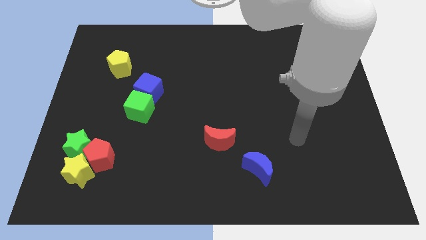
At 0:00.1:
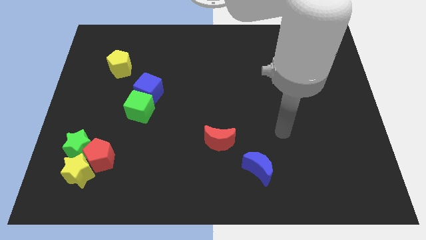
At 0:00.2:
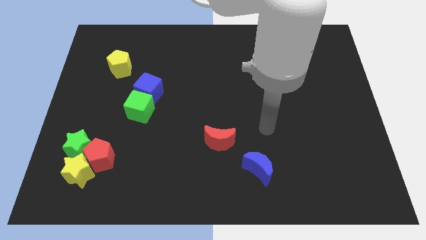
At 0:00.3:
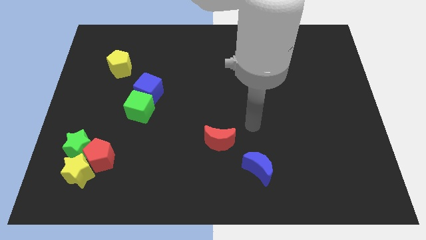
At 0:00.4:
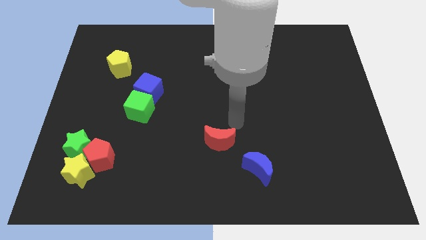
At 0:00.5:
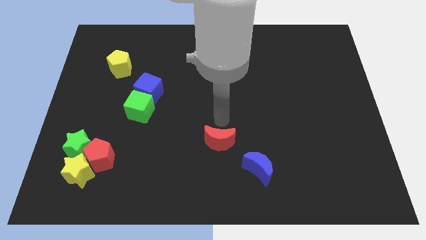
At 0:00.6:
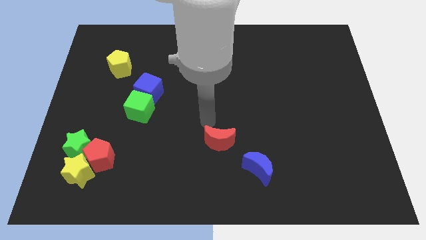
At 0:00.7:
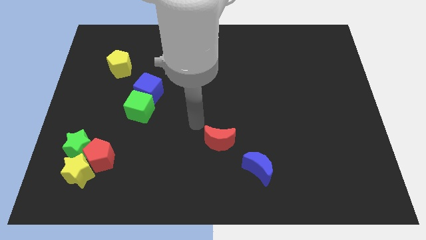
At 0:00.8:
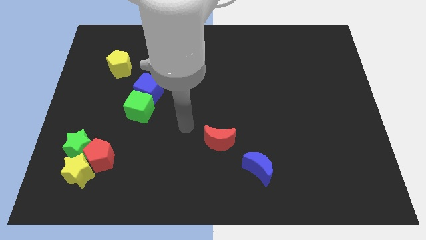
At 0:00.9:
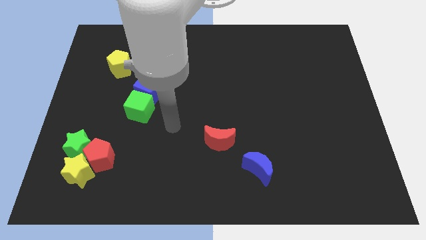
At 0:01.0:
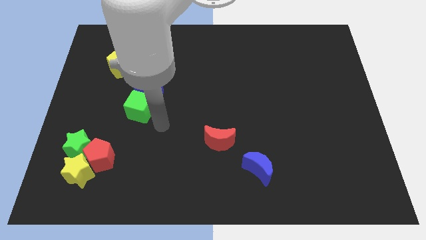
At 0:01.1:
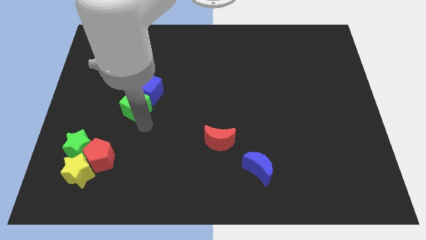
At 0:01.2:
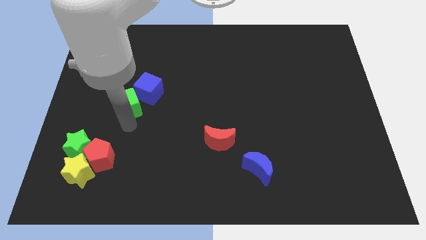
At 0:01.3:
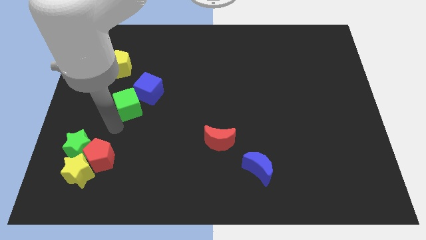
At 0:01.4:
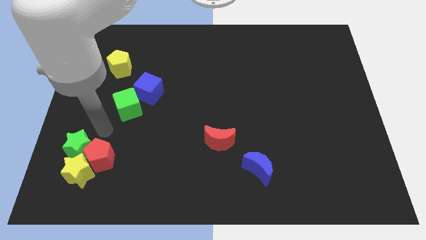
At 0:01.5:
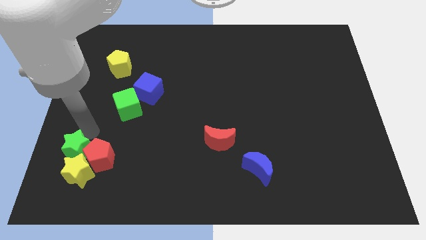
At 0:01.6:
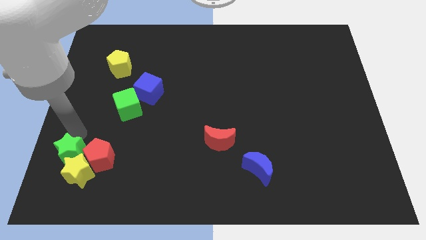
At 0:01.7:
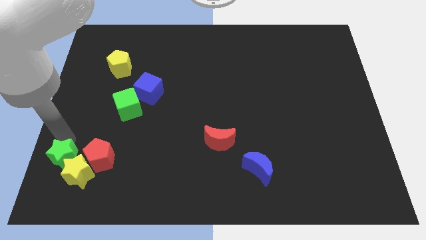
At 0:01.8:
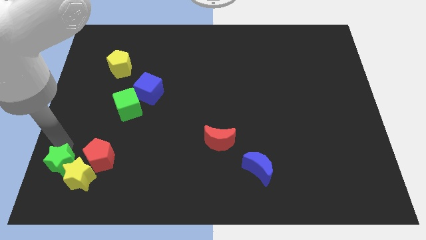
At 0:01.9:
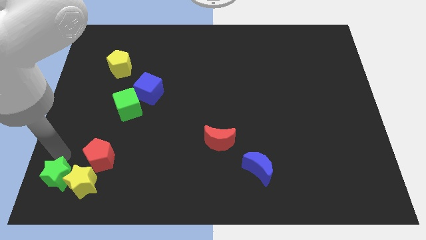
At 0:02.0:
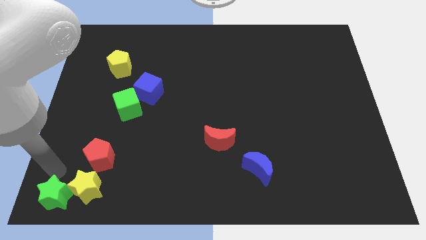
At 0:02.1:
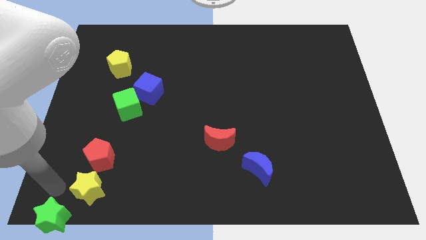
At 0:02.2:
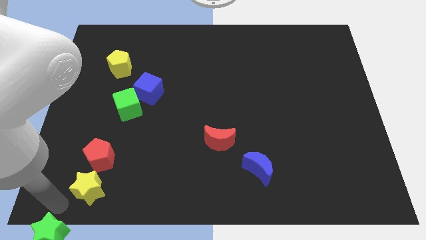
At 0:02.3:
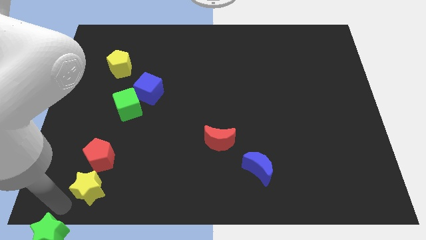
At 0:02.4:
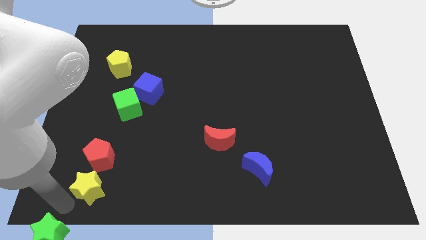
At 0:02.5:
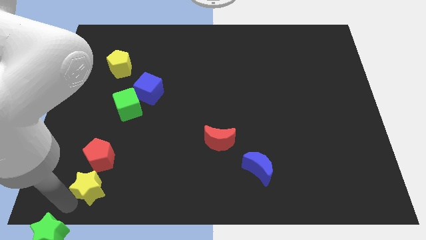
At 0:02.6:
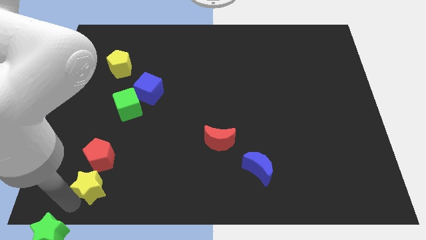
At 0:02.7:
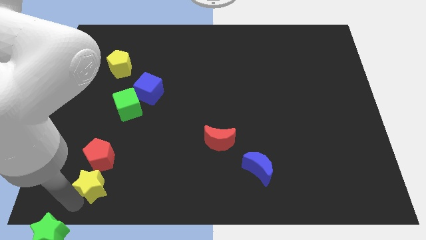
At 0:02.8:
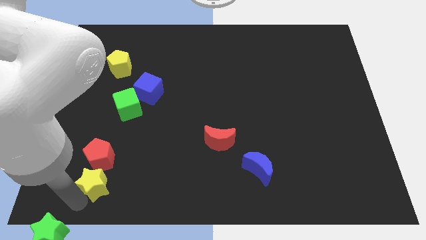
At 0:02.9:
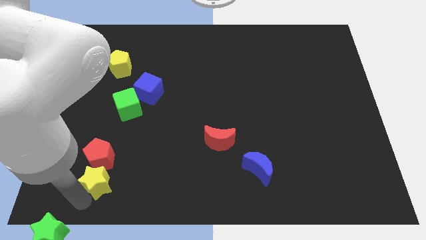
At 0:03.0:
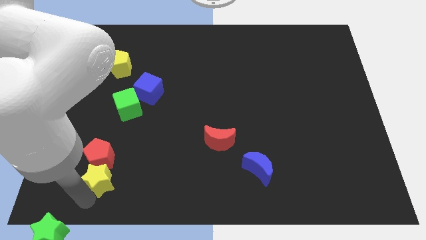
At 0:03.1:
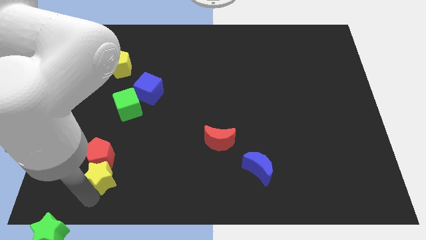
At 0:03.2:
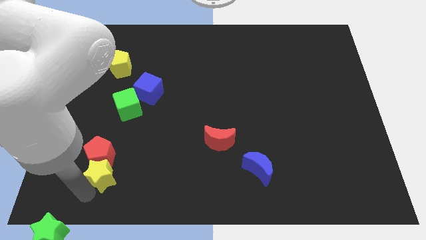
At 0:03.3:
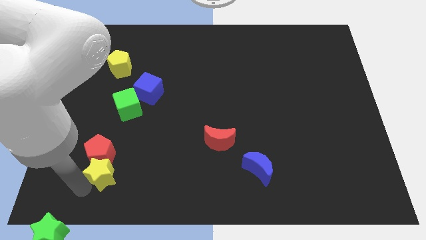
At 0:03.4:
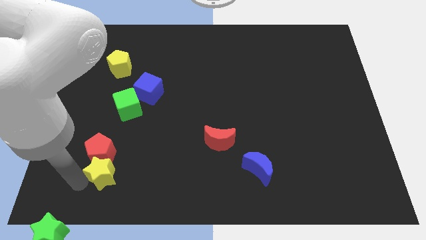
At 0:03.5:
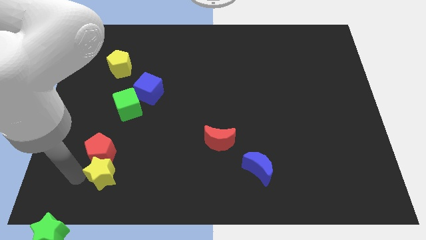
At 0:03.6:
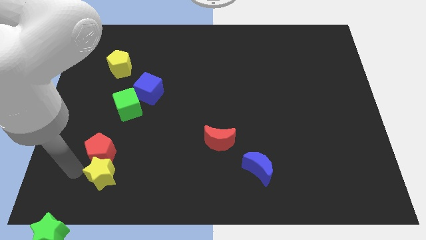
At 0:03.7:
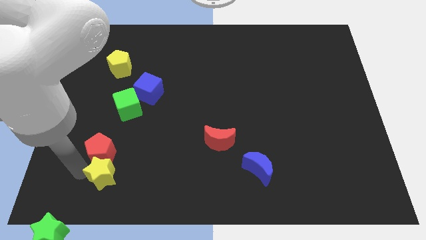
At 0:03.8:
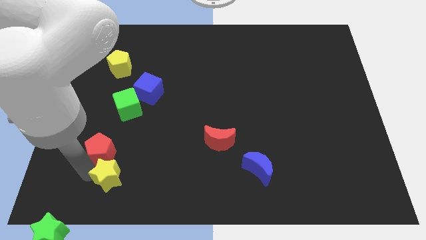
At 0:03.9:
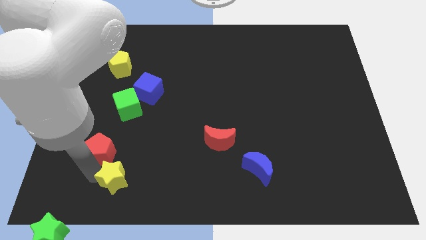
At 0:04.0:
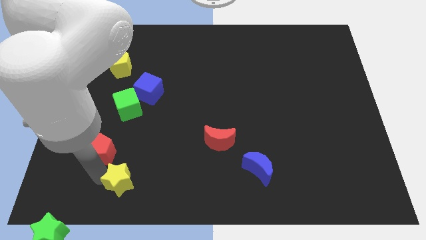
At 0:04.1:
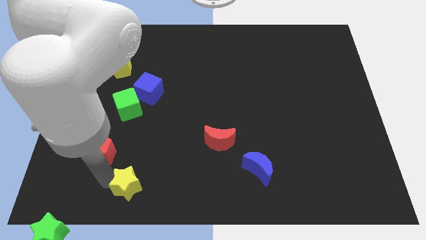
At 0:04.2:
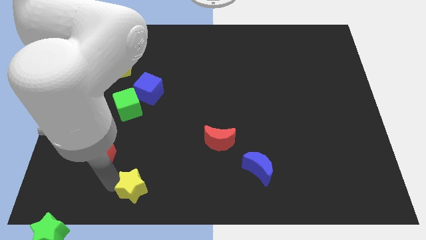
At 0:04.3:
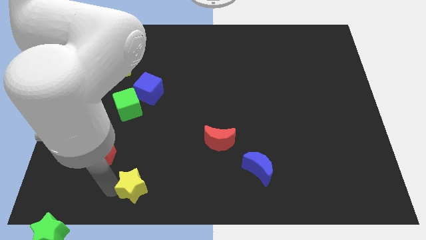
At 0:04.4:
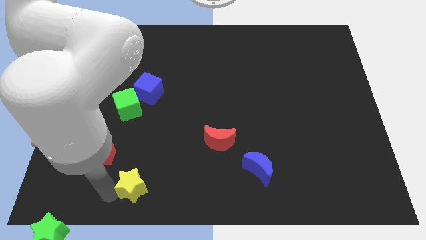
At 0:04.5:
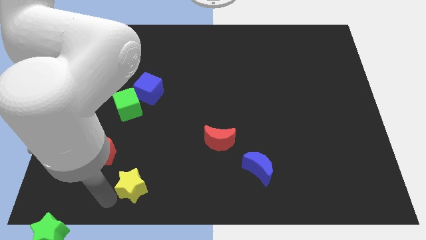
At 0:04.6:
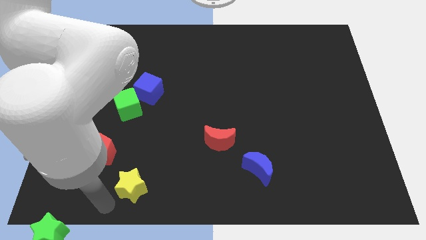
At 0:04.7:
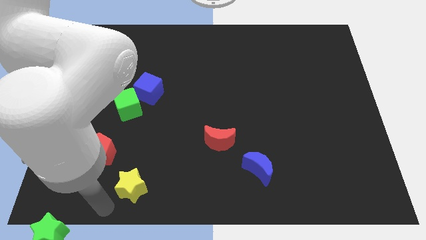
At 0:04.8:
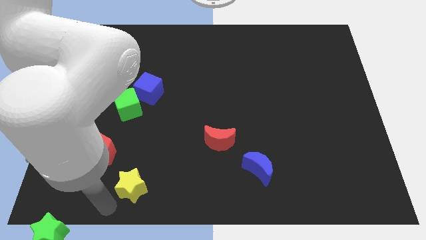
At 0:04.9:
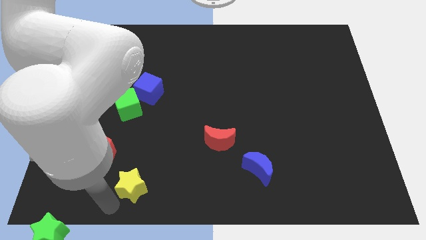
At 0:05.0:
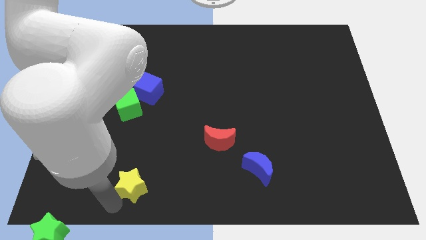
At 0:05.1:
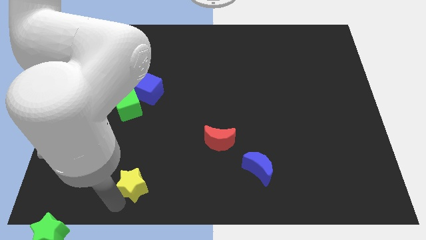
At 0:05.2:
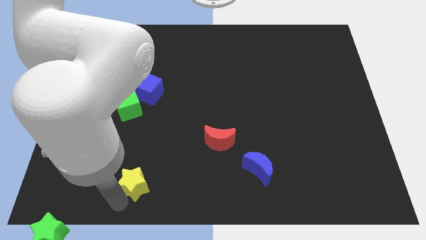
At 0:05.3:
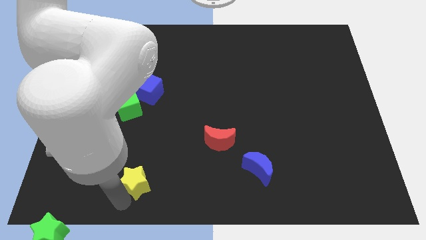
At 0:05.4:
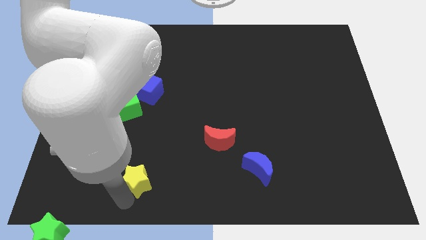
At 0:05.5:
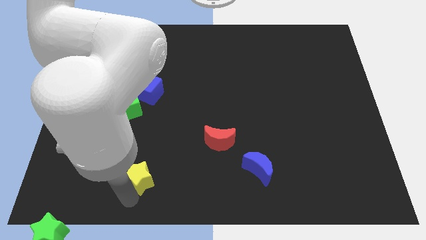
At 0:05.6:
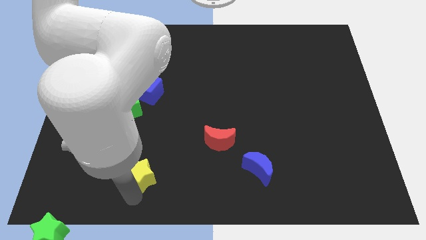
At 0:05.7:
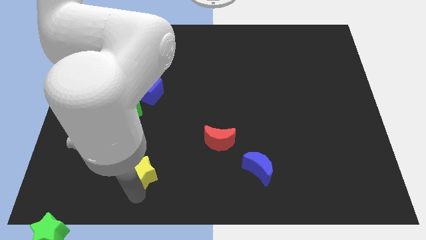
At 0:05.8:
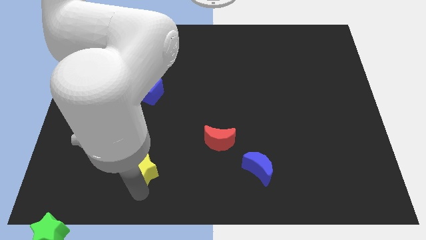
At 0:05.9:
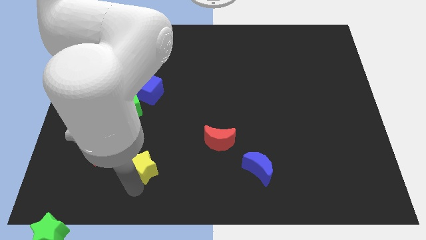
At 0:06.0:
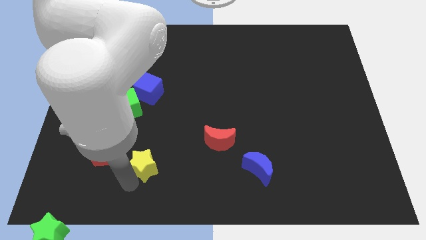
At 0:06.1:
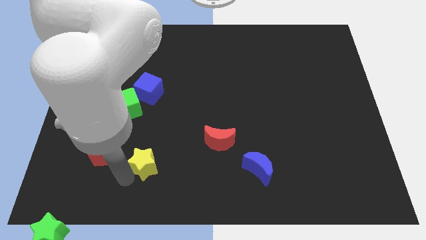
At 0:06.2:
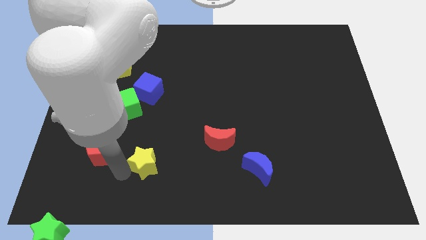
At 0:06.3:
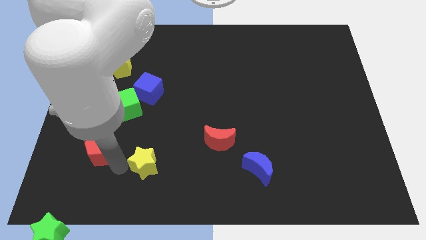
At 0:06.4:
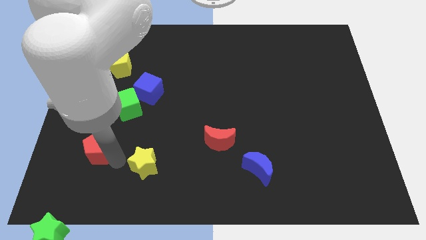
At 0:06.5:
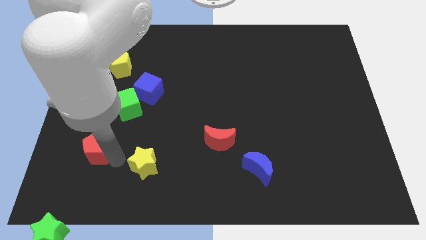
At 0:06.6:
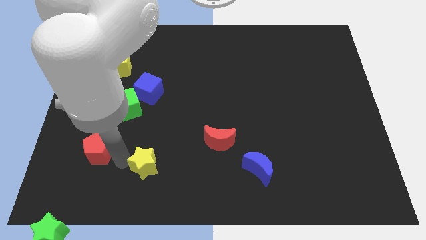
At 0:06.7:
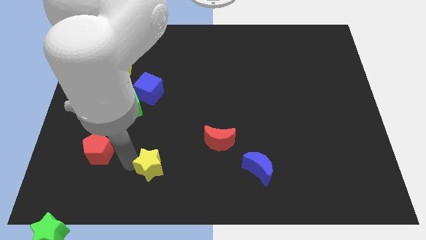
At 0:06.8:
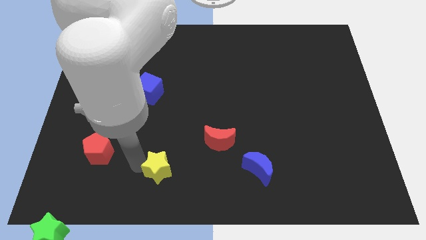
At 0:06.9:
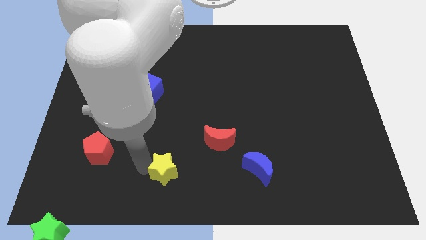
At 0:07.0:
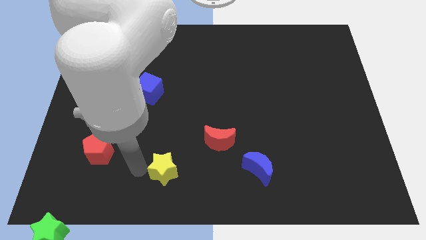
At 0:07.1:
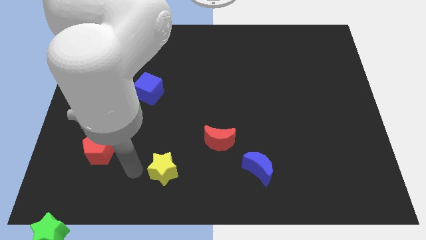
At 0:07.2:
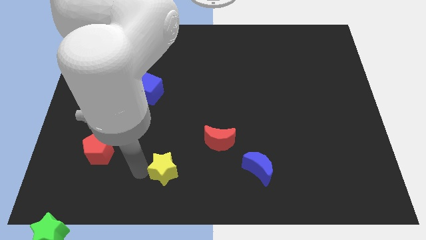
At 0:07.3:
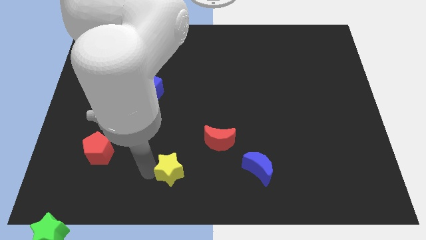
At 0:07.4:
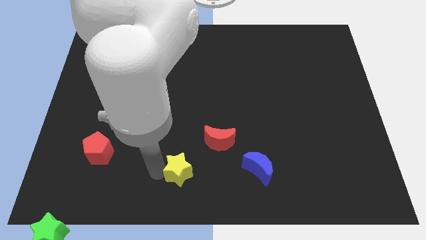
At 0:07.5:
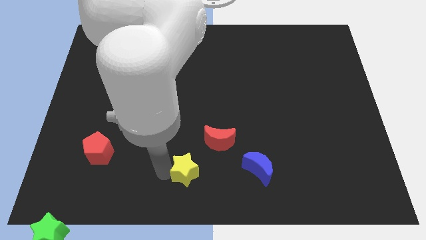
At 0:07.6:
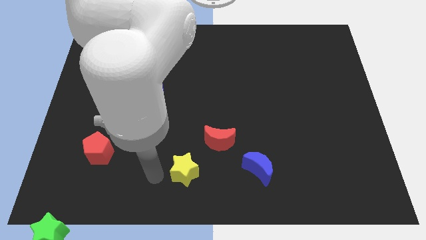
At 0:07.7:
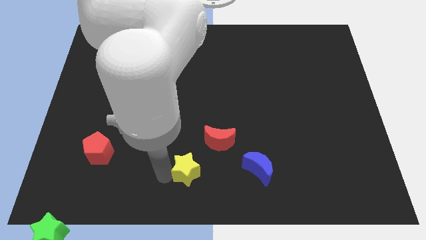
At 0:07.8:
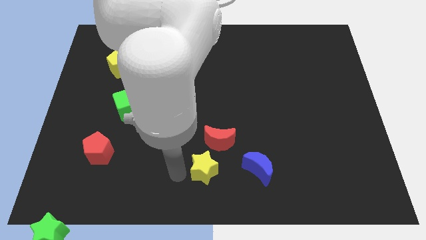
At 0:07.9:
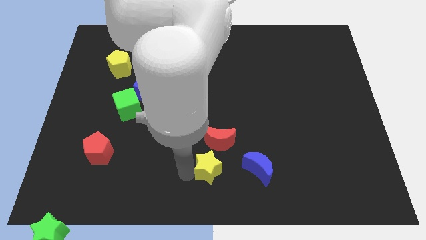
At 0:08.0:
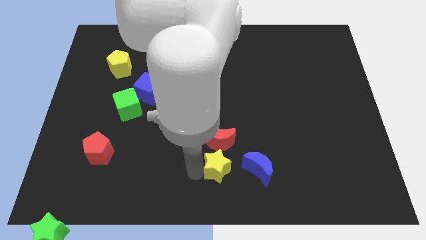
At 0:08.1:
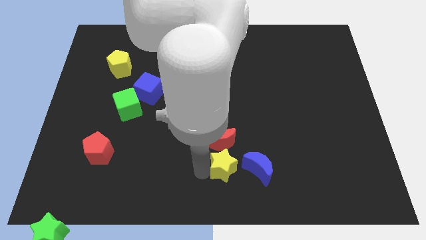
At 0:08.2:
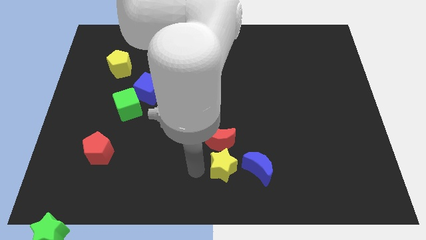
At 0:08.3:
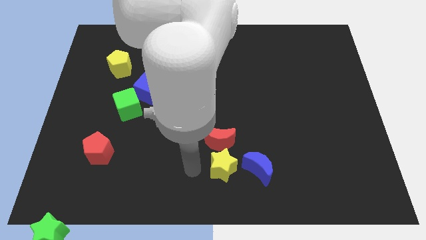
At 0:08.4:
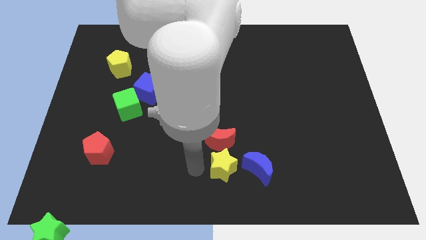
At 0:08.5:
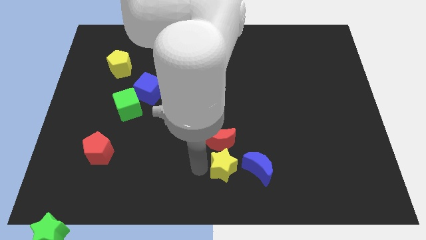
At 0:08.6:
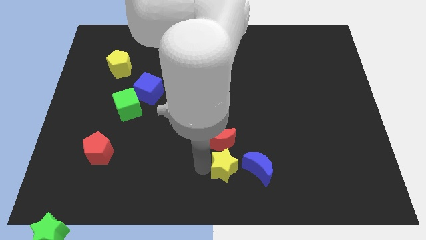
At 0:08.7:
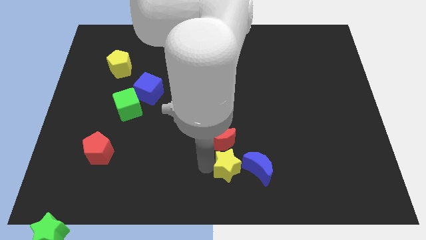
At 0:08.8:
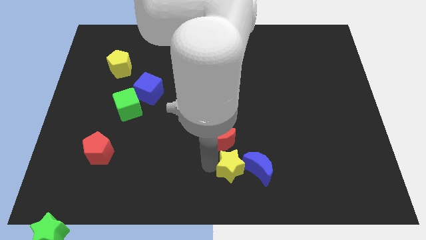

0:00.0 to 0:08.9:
put the yellow star close to the blue moon
